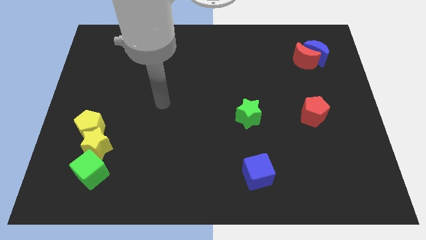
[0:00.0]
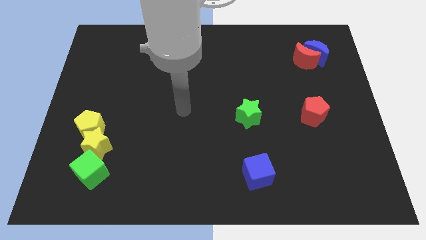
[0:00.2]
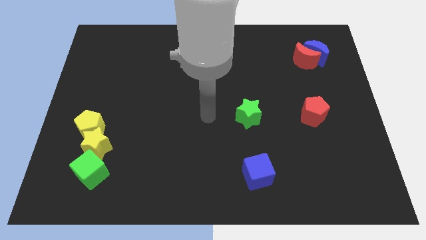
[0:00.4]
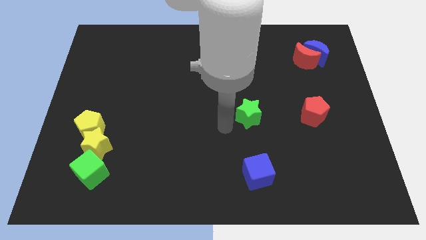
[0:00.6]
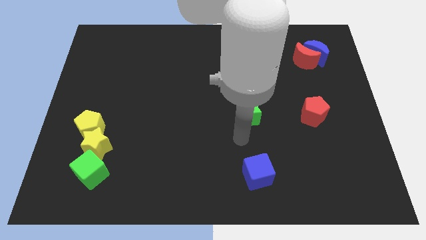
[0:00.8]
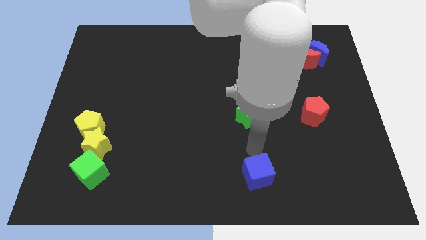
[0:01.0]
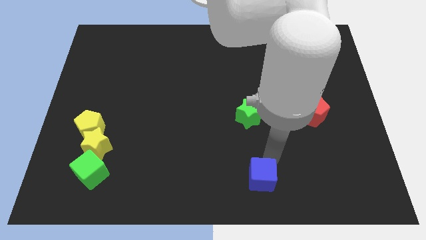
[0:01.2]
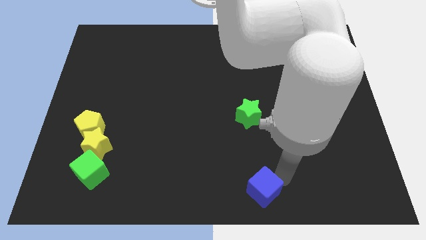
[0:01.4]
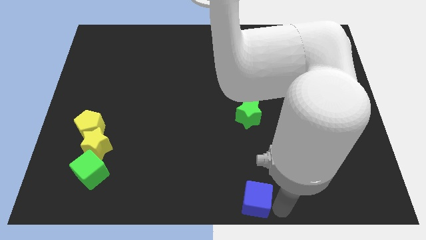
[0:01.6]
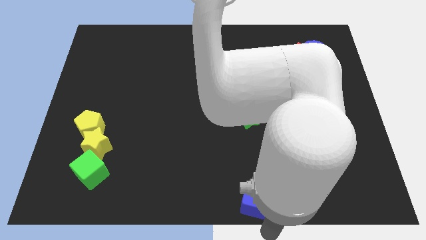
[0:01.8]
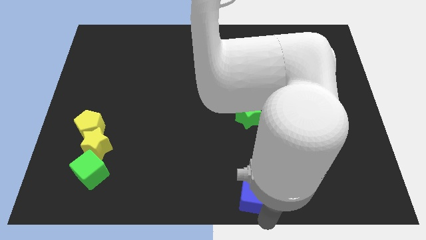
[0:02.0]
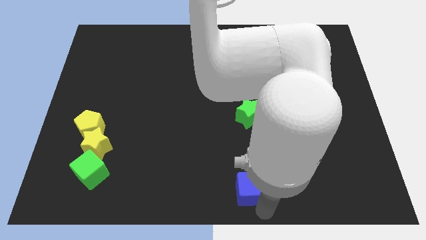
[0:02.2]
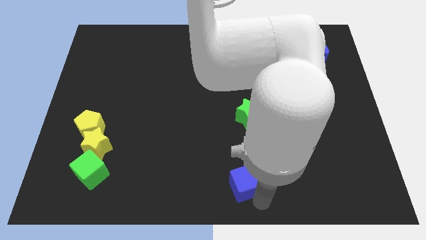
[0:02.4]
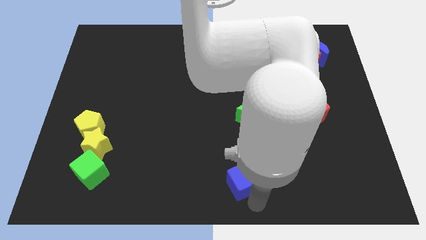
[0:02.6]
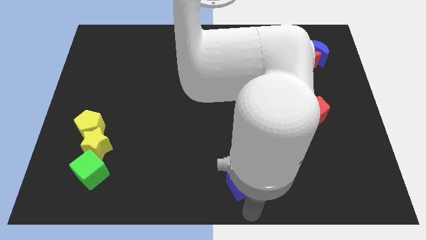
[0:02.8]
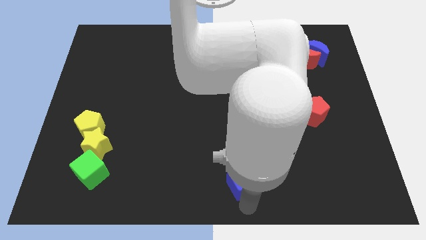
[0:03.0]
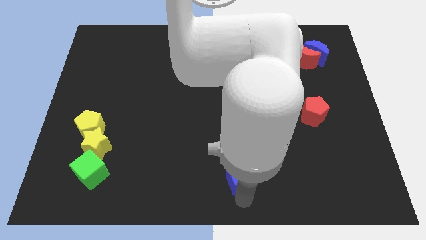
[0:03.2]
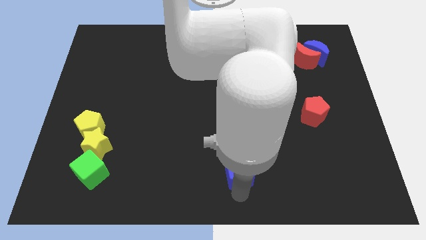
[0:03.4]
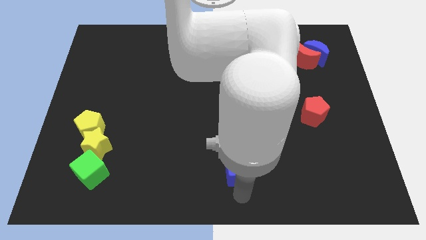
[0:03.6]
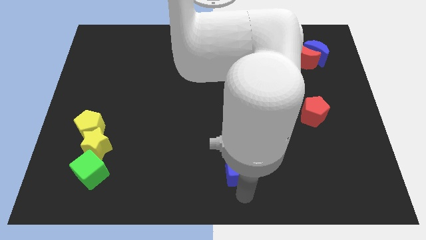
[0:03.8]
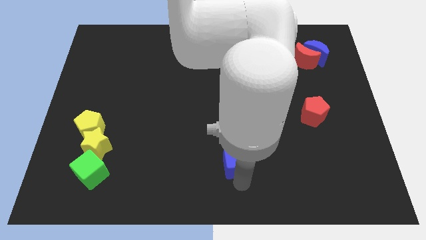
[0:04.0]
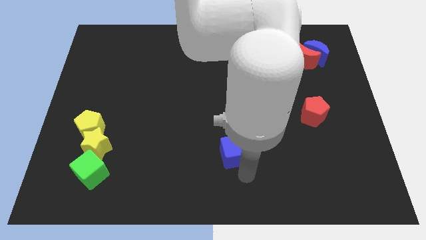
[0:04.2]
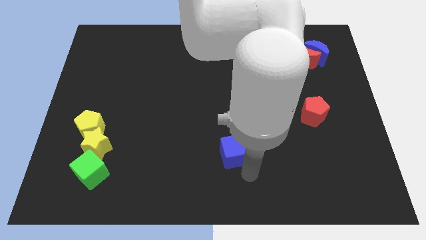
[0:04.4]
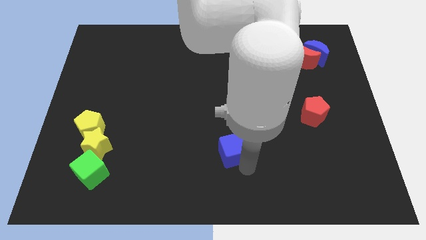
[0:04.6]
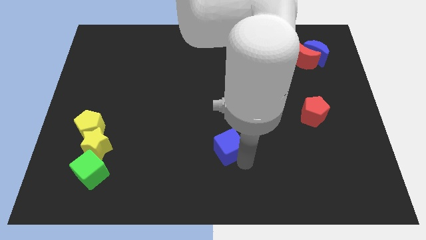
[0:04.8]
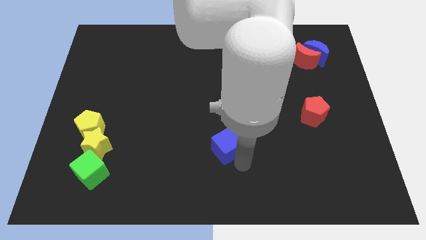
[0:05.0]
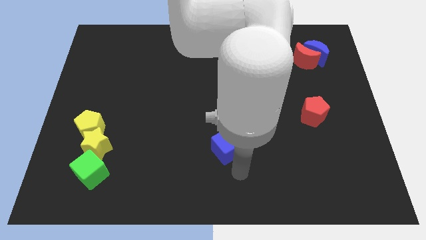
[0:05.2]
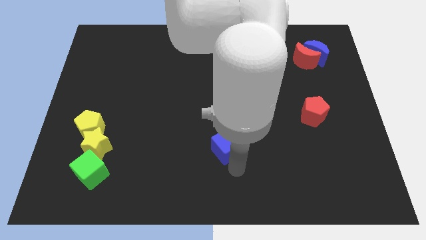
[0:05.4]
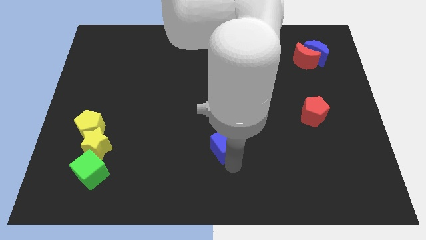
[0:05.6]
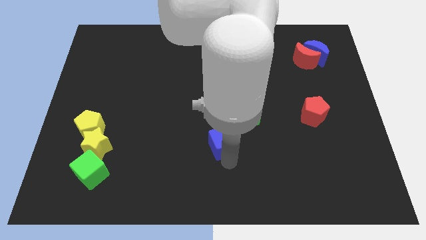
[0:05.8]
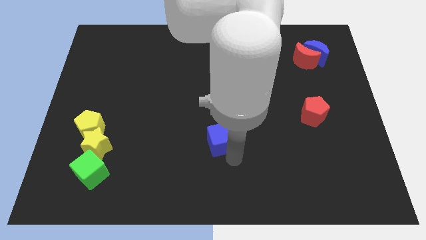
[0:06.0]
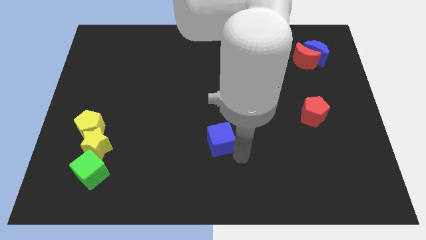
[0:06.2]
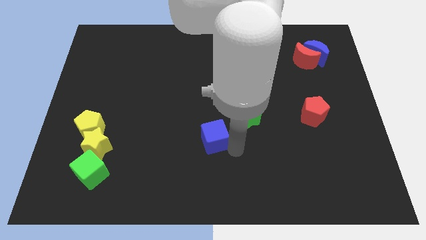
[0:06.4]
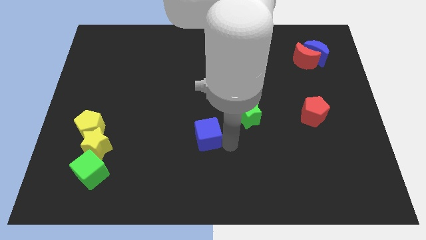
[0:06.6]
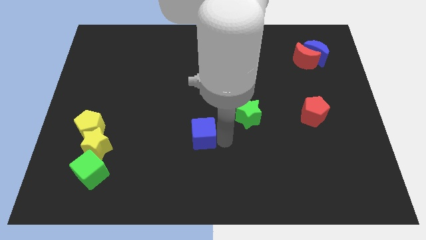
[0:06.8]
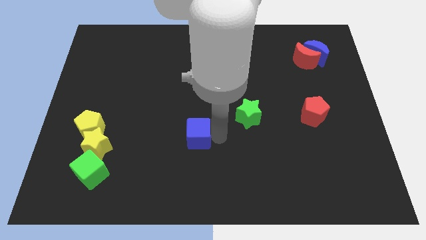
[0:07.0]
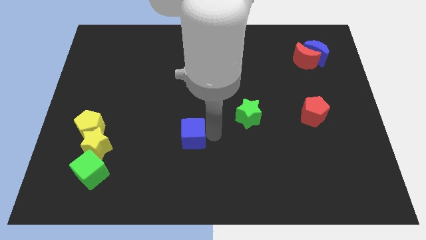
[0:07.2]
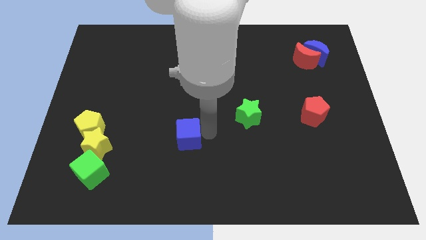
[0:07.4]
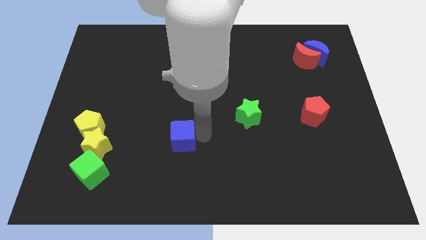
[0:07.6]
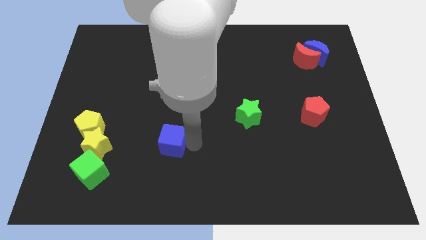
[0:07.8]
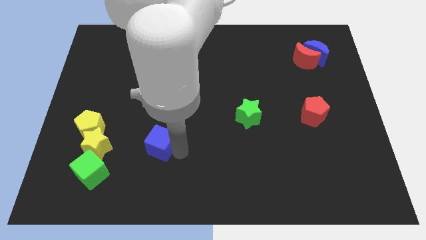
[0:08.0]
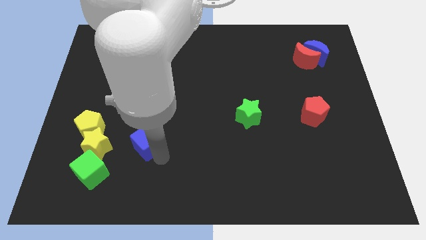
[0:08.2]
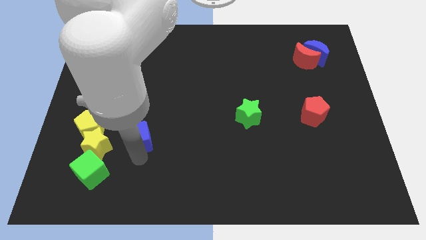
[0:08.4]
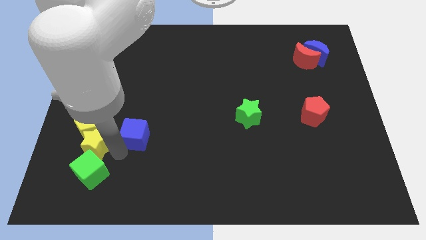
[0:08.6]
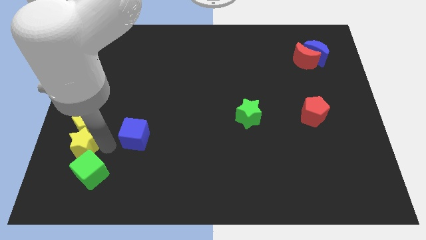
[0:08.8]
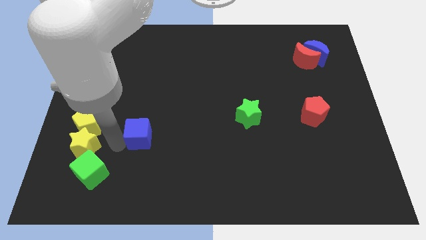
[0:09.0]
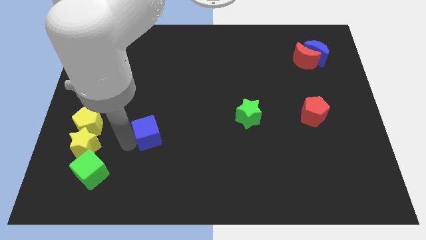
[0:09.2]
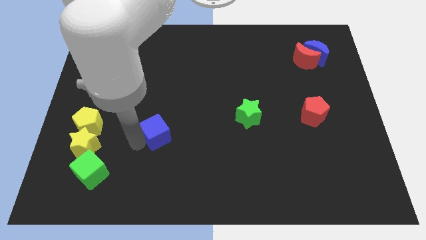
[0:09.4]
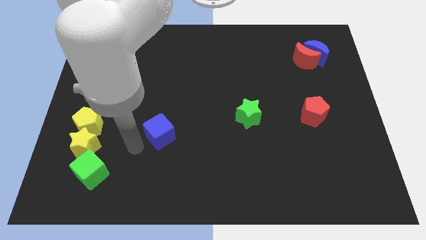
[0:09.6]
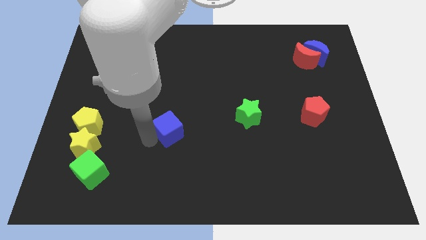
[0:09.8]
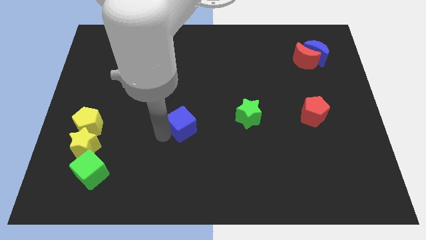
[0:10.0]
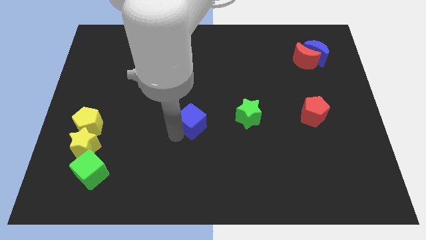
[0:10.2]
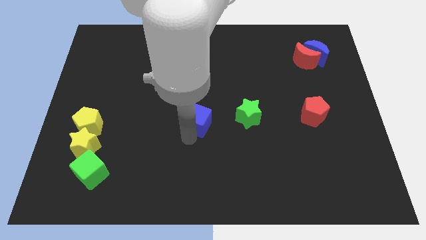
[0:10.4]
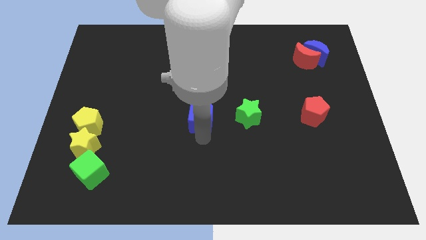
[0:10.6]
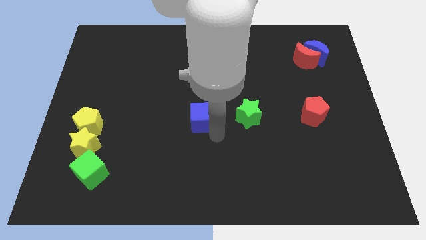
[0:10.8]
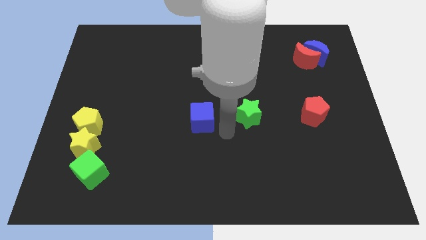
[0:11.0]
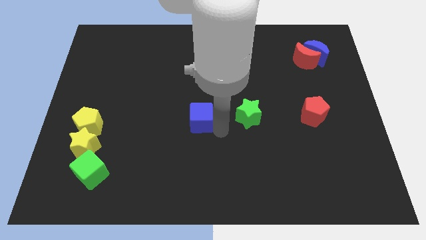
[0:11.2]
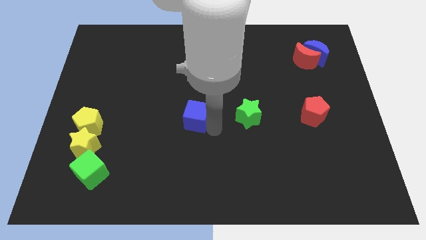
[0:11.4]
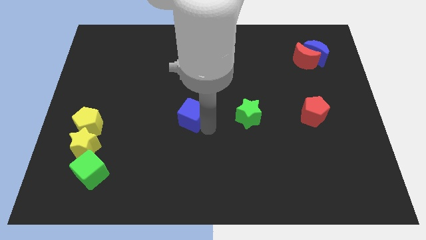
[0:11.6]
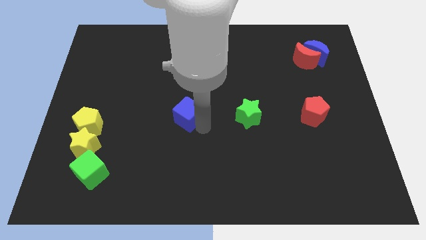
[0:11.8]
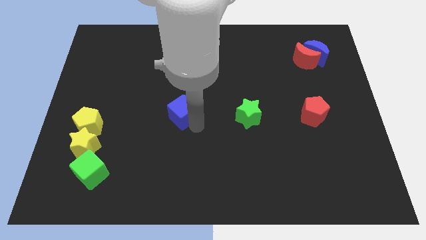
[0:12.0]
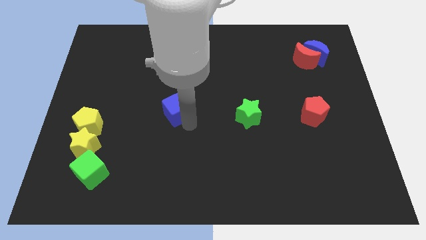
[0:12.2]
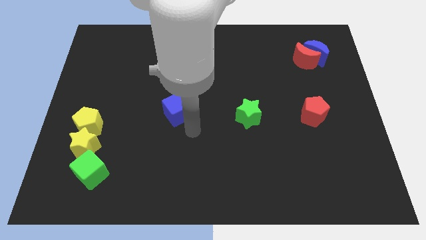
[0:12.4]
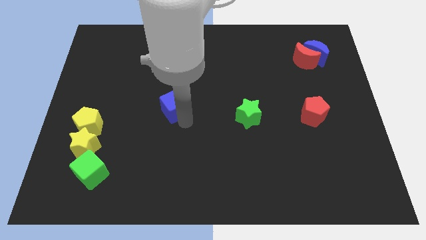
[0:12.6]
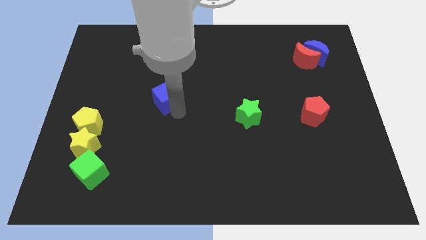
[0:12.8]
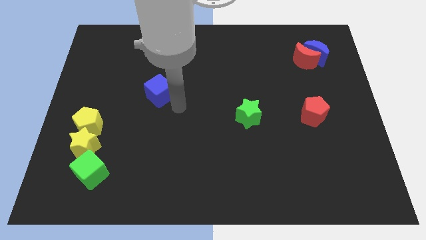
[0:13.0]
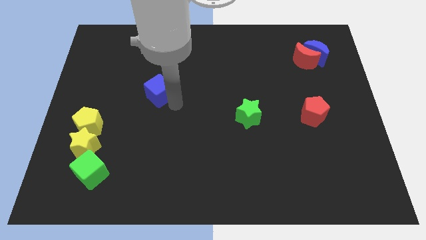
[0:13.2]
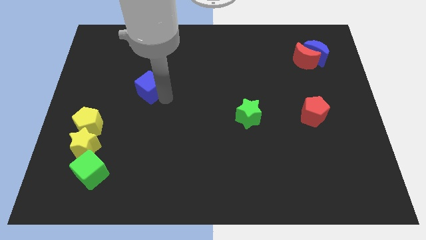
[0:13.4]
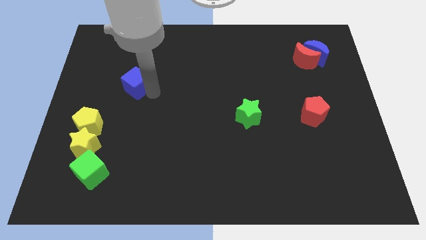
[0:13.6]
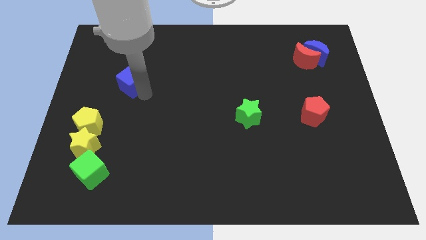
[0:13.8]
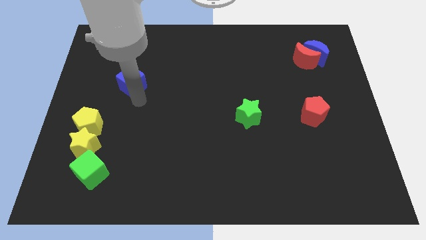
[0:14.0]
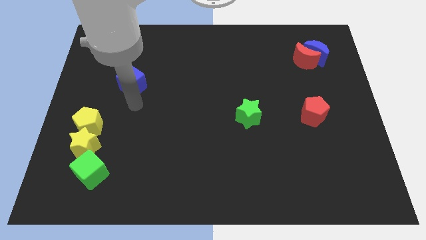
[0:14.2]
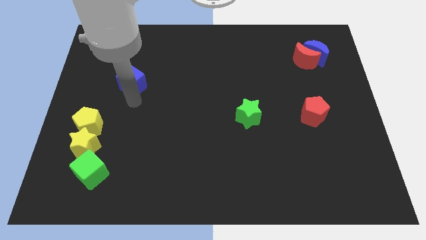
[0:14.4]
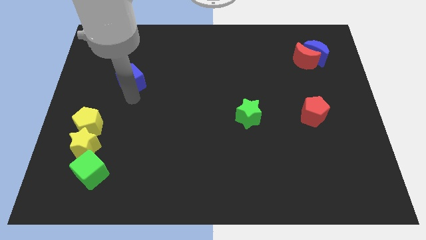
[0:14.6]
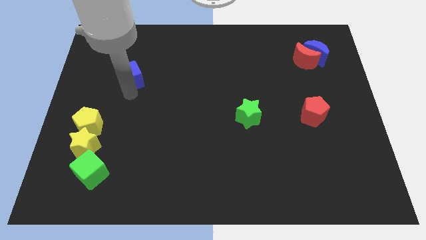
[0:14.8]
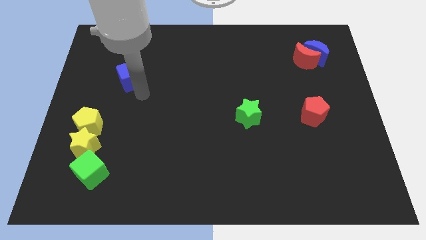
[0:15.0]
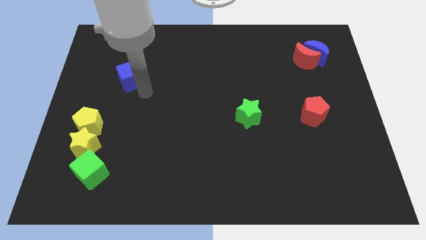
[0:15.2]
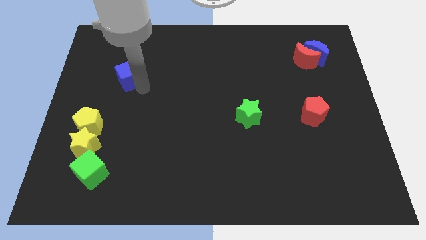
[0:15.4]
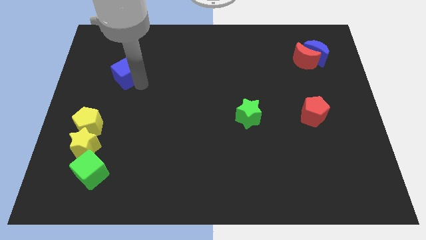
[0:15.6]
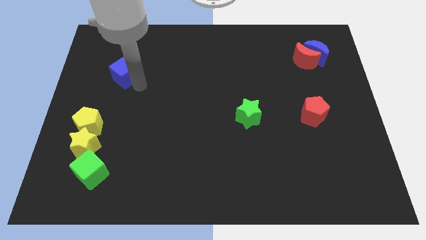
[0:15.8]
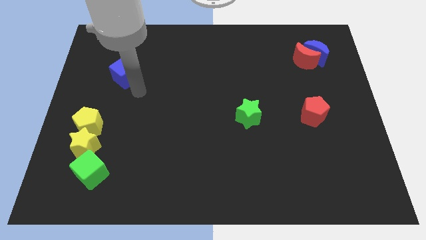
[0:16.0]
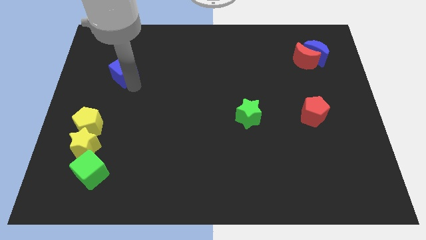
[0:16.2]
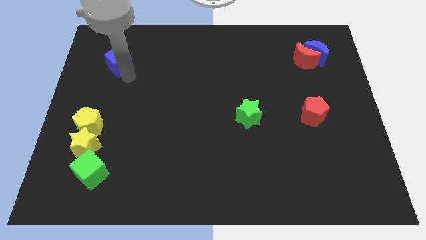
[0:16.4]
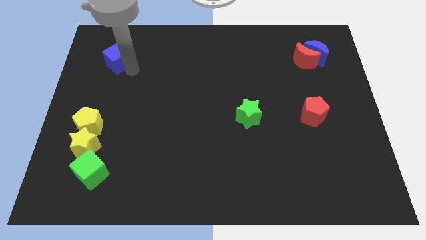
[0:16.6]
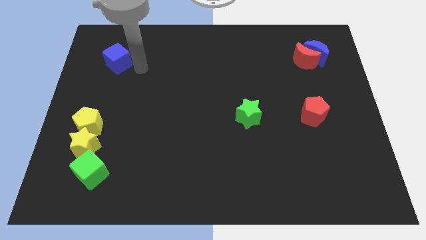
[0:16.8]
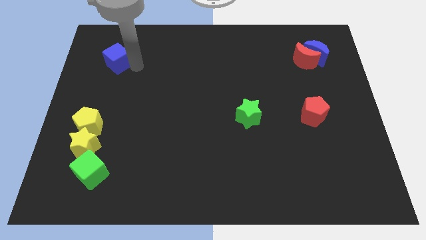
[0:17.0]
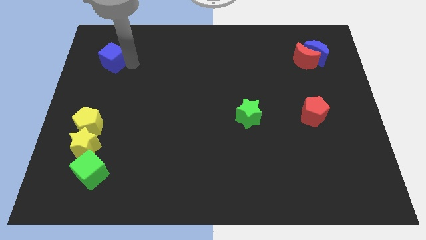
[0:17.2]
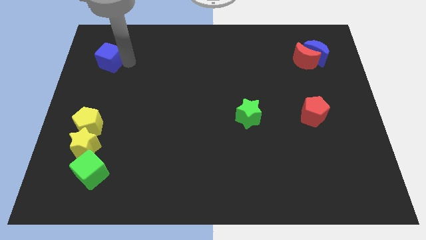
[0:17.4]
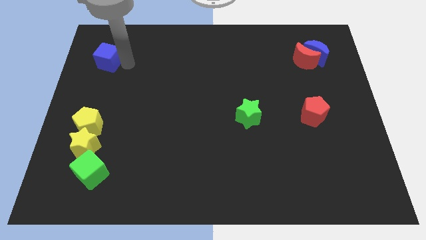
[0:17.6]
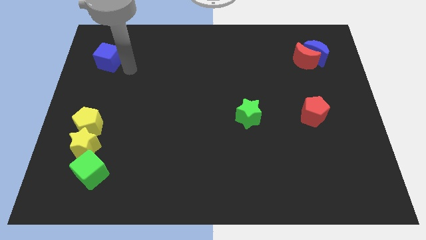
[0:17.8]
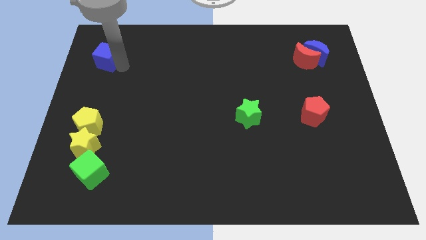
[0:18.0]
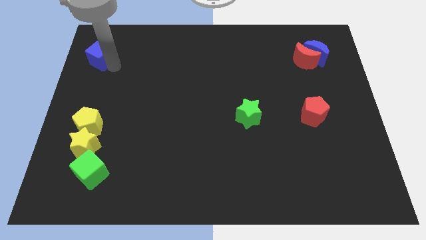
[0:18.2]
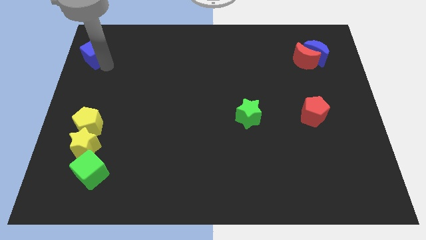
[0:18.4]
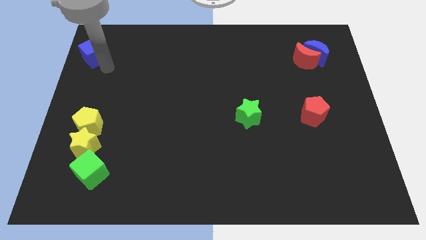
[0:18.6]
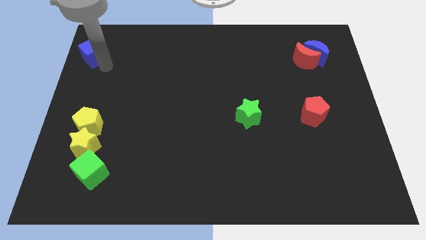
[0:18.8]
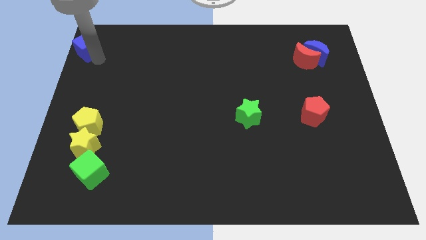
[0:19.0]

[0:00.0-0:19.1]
slide the blue cube to the top left corner
